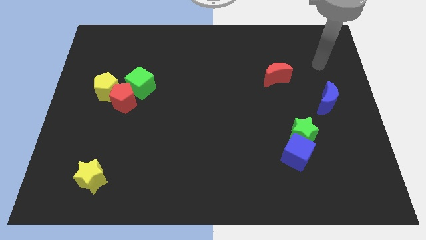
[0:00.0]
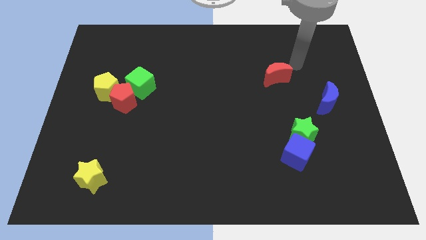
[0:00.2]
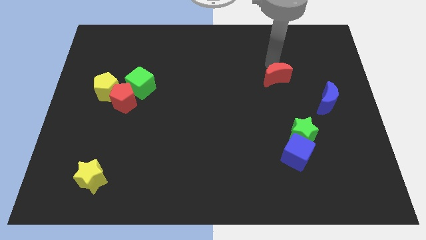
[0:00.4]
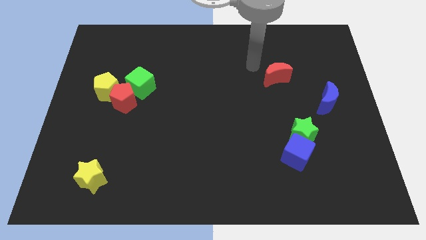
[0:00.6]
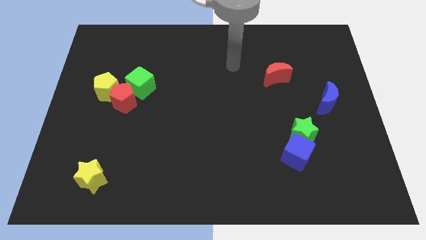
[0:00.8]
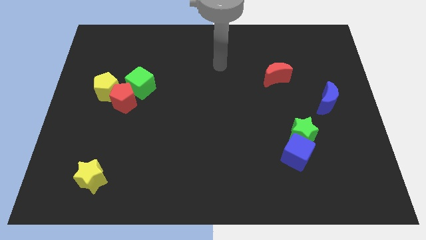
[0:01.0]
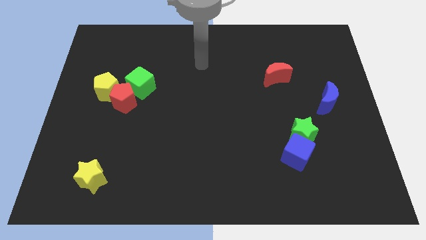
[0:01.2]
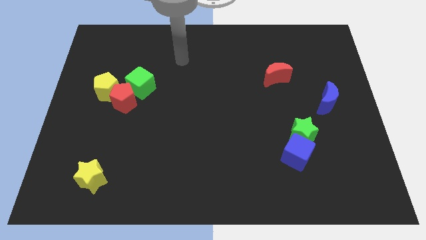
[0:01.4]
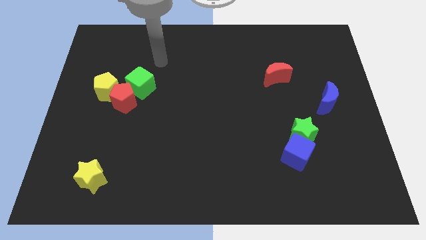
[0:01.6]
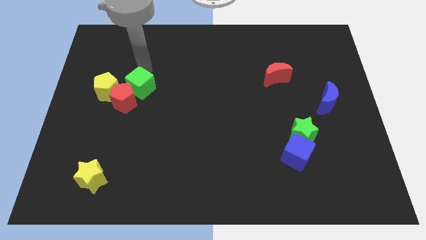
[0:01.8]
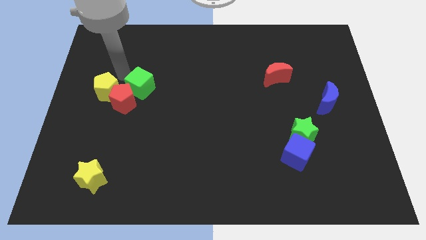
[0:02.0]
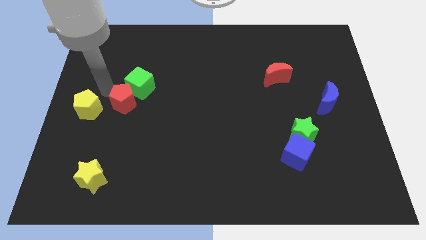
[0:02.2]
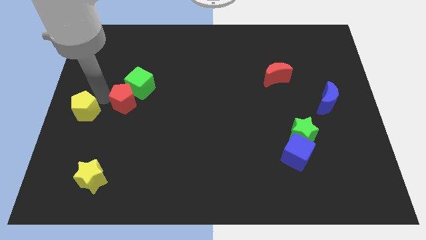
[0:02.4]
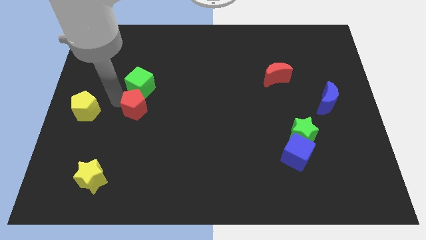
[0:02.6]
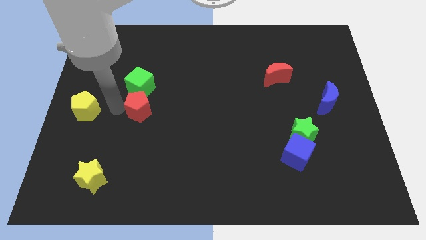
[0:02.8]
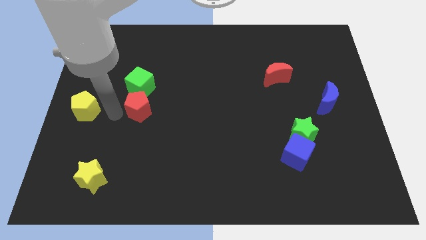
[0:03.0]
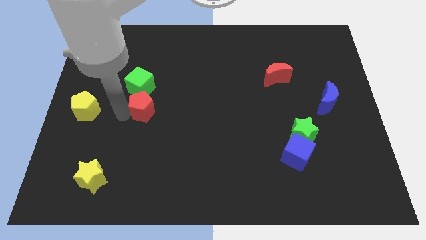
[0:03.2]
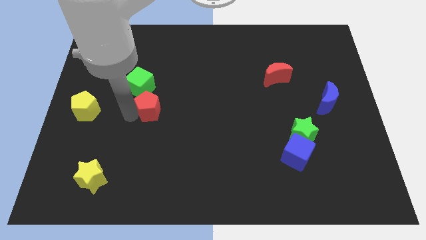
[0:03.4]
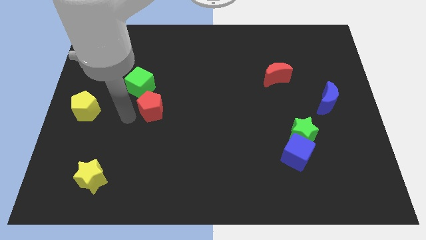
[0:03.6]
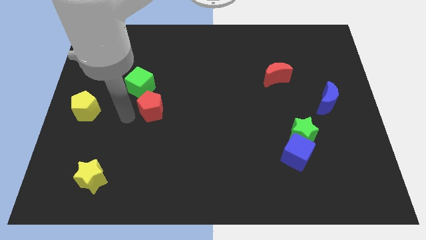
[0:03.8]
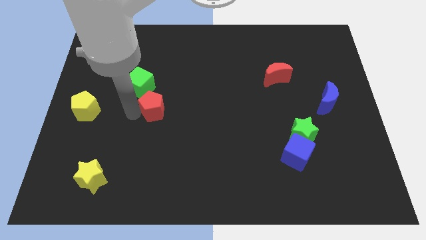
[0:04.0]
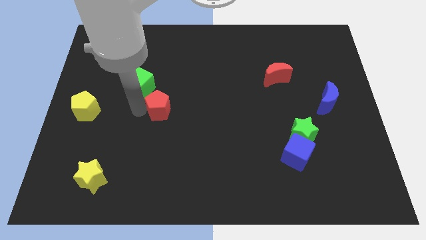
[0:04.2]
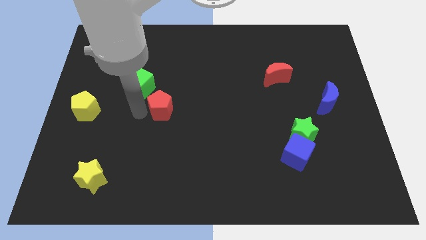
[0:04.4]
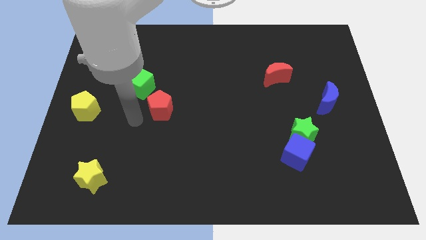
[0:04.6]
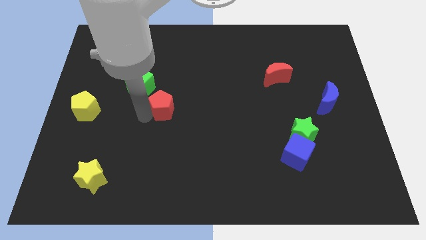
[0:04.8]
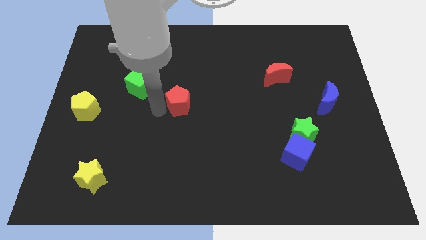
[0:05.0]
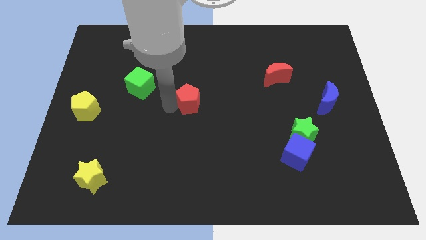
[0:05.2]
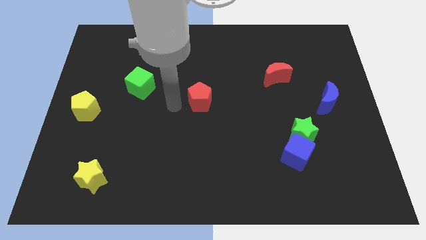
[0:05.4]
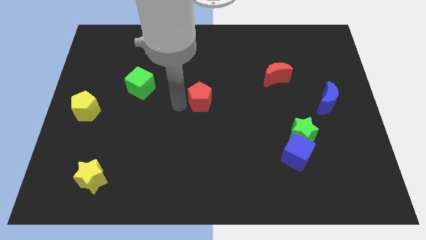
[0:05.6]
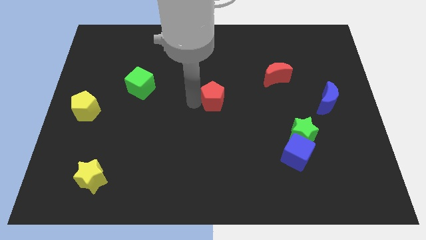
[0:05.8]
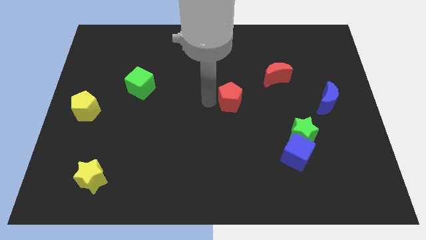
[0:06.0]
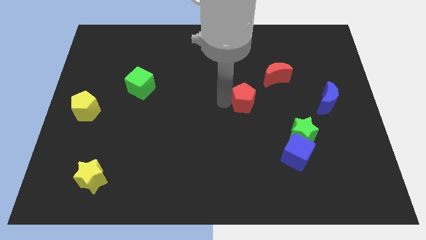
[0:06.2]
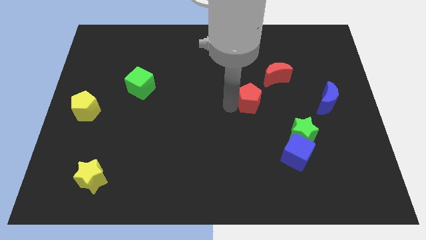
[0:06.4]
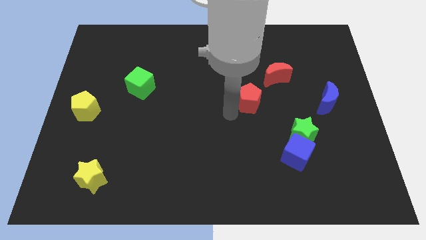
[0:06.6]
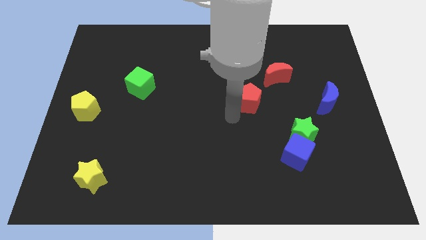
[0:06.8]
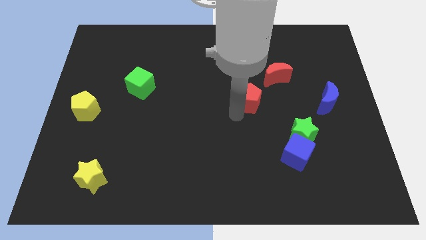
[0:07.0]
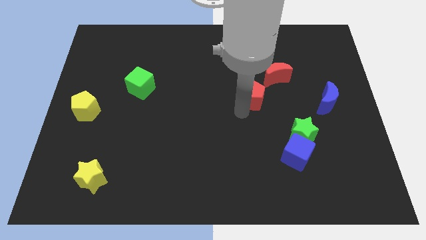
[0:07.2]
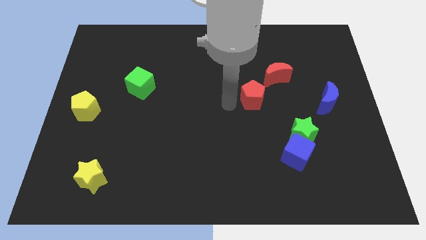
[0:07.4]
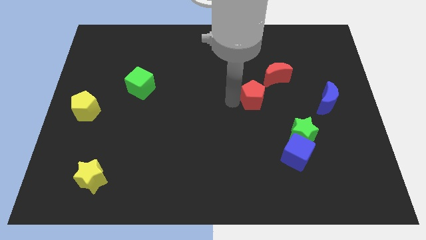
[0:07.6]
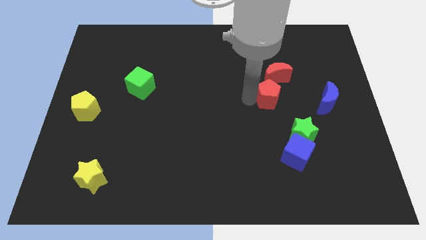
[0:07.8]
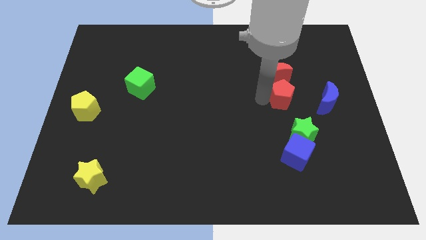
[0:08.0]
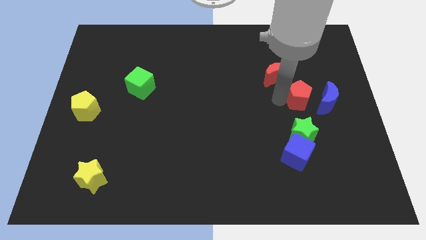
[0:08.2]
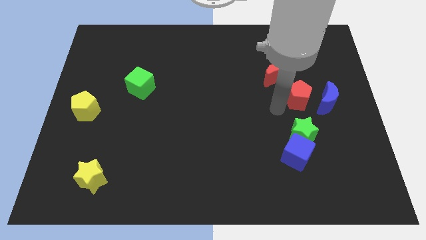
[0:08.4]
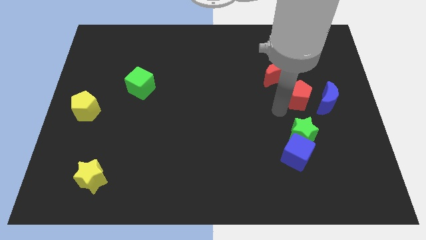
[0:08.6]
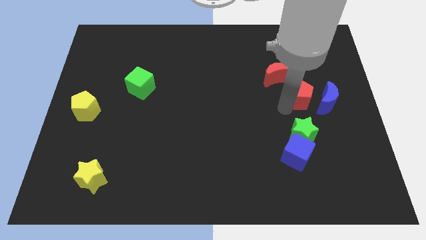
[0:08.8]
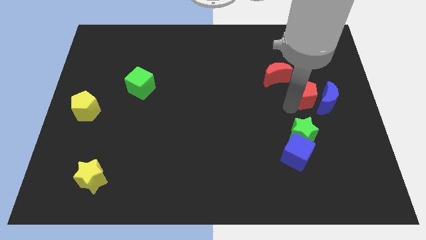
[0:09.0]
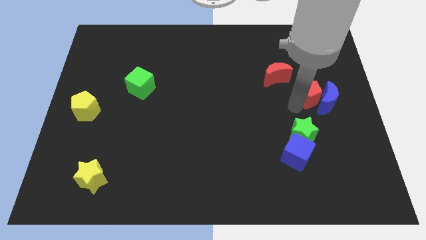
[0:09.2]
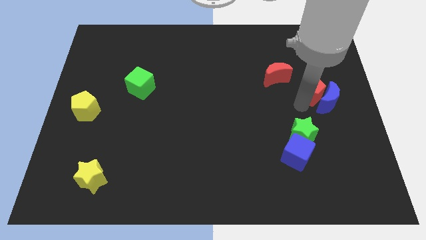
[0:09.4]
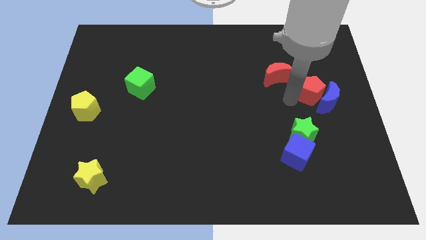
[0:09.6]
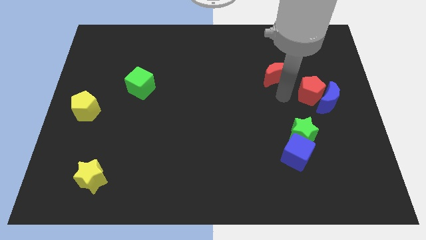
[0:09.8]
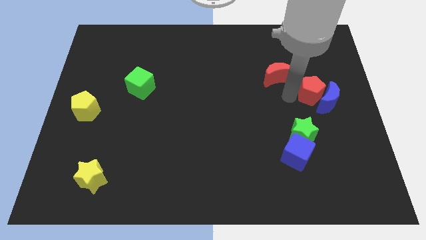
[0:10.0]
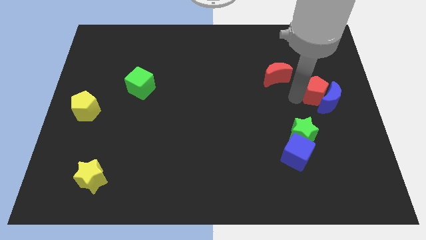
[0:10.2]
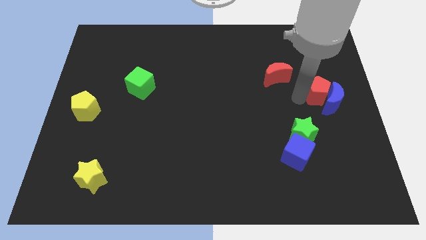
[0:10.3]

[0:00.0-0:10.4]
put the red pentagon to the center right
